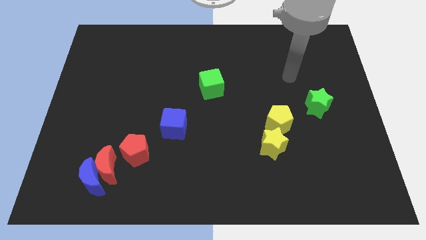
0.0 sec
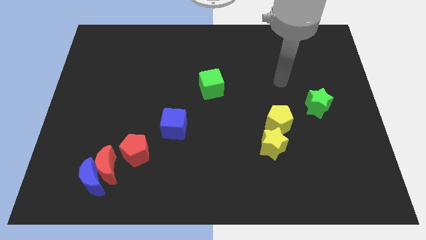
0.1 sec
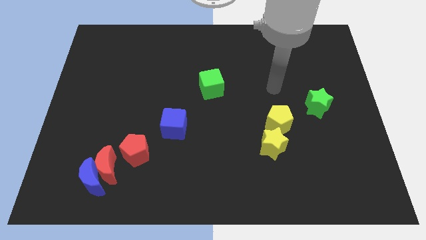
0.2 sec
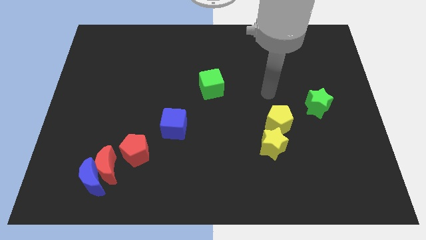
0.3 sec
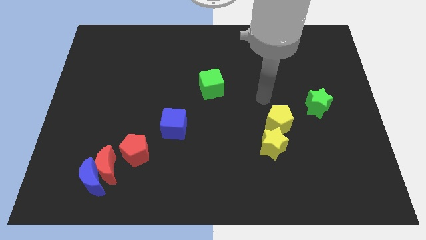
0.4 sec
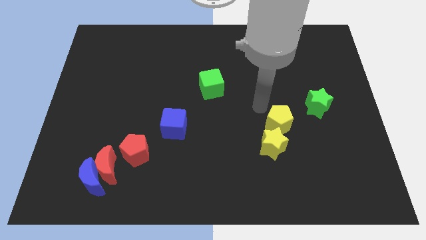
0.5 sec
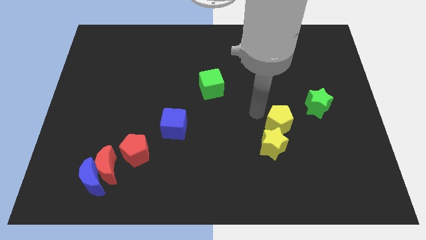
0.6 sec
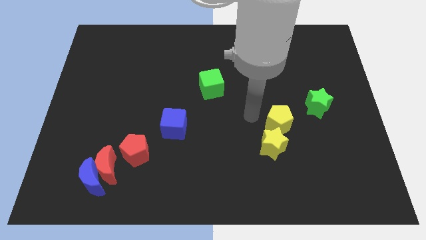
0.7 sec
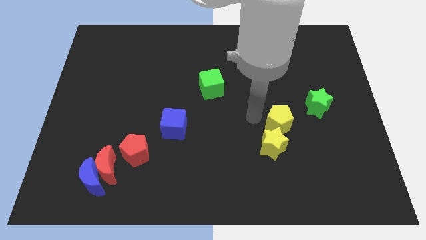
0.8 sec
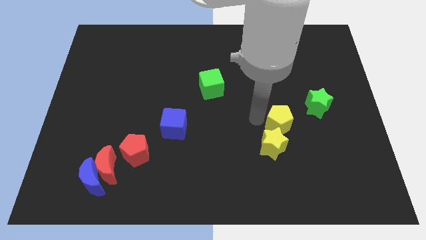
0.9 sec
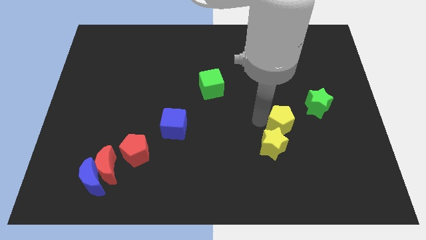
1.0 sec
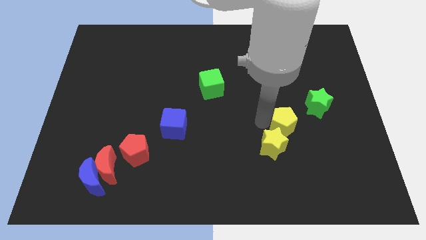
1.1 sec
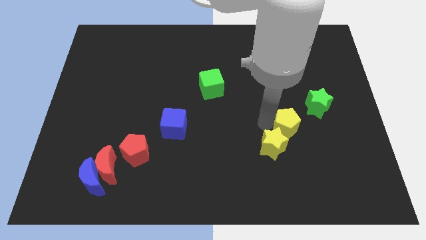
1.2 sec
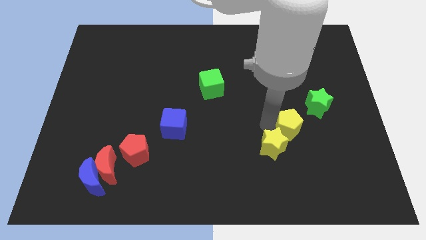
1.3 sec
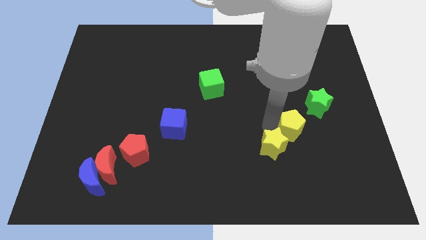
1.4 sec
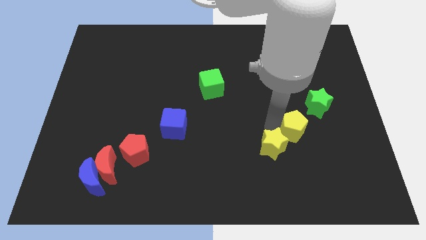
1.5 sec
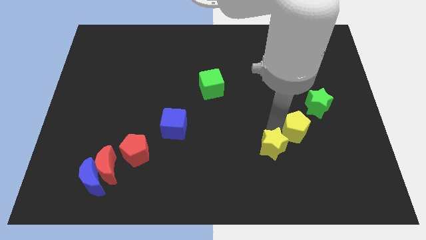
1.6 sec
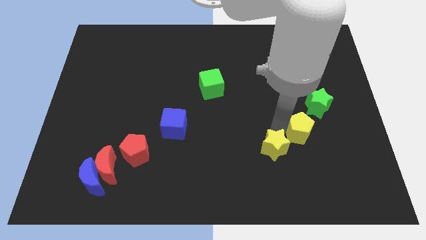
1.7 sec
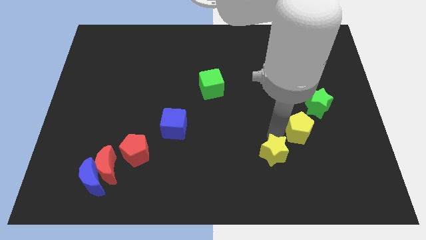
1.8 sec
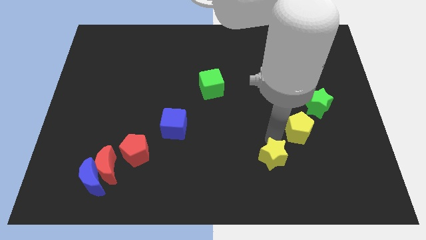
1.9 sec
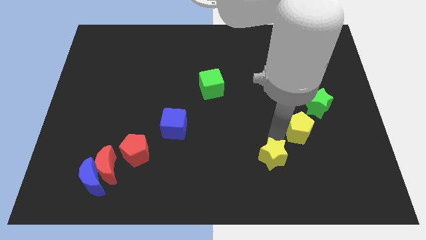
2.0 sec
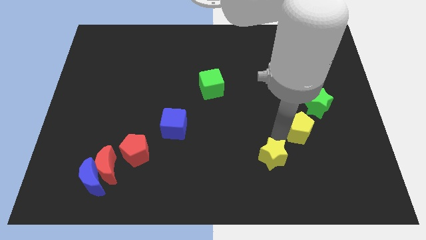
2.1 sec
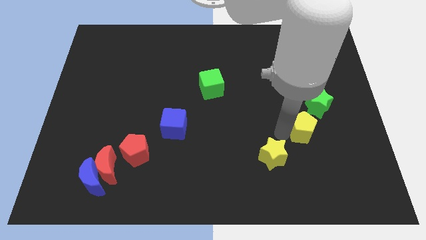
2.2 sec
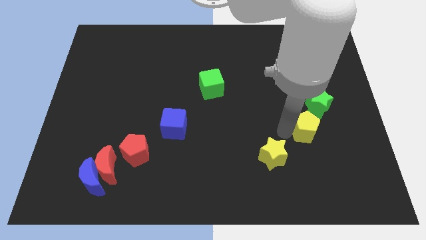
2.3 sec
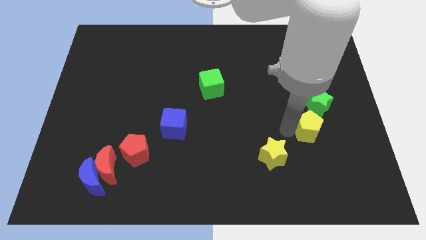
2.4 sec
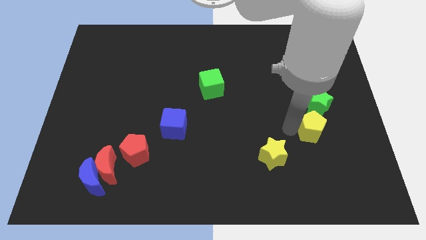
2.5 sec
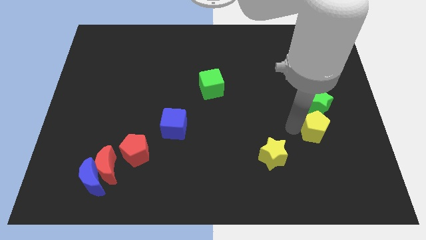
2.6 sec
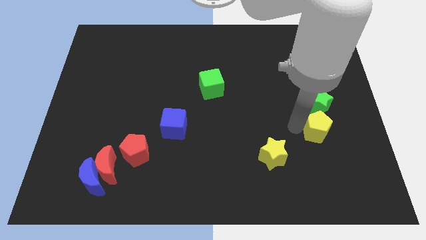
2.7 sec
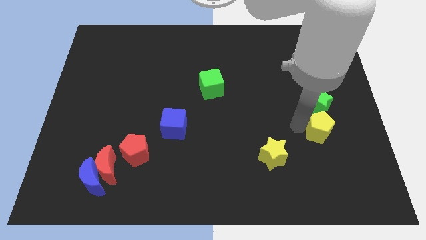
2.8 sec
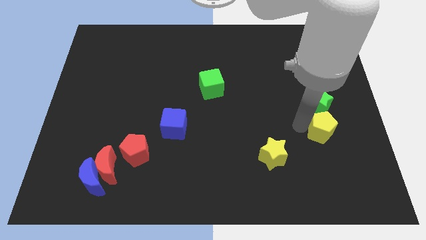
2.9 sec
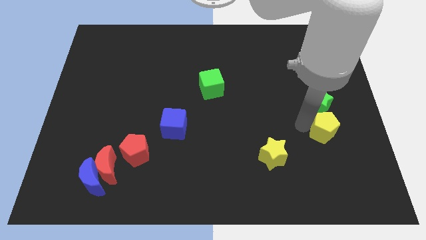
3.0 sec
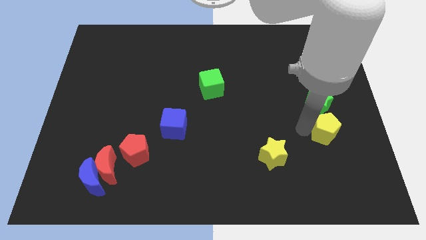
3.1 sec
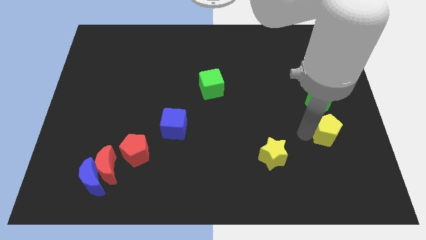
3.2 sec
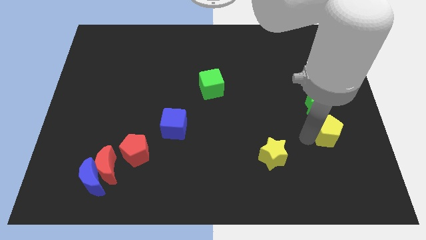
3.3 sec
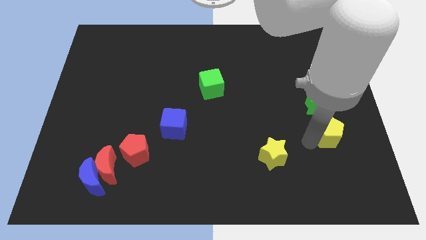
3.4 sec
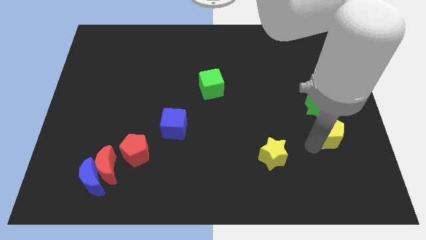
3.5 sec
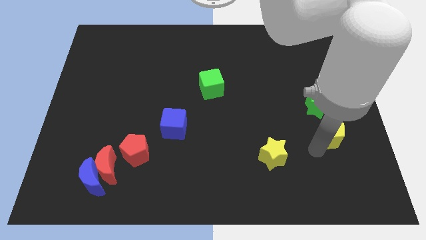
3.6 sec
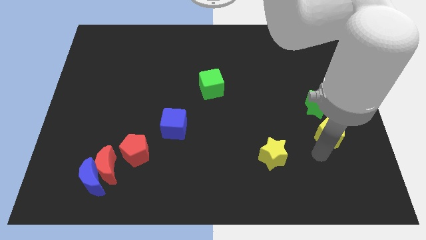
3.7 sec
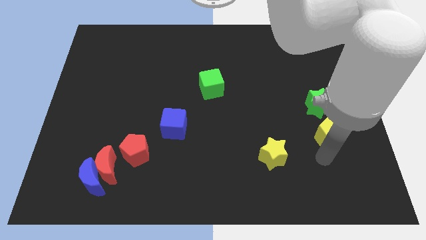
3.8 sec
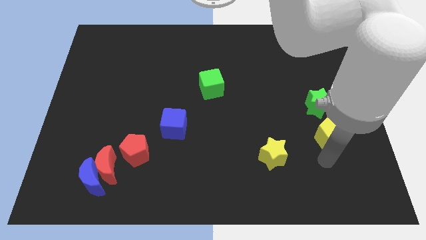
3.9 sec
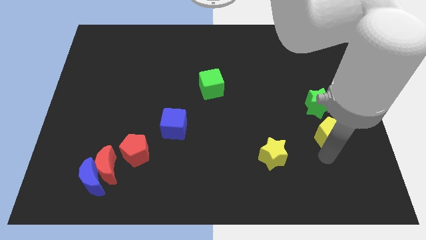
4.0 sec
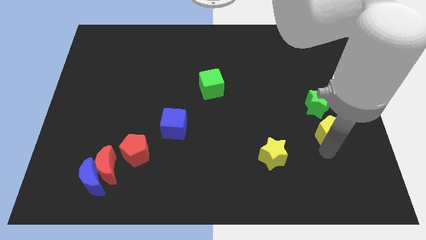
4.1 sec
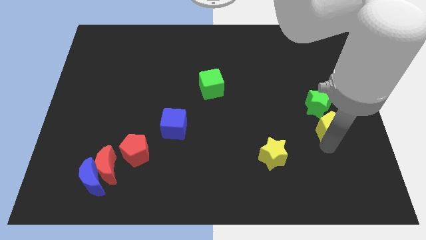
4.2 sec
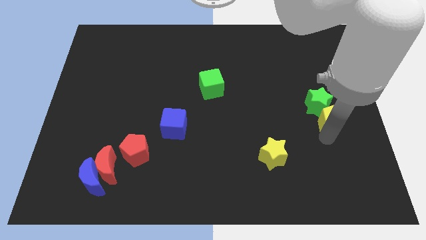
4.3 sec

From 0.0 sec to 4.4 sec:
slide the yellow pentagon to the right side of the board

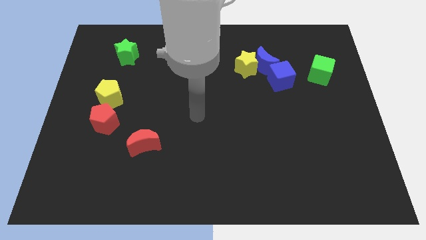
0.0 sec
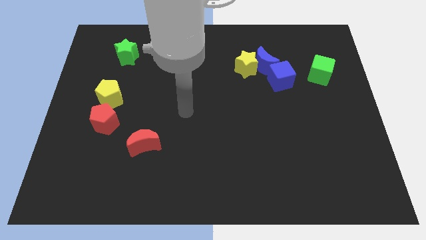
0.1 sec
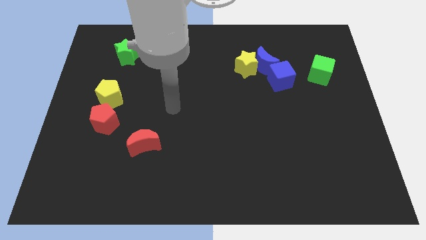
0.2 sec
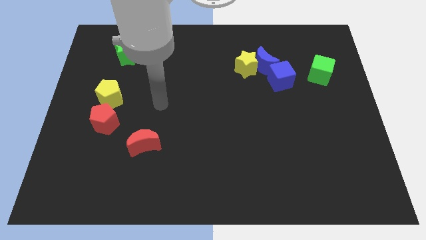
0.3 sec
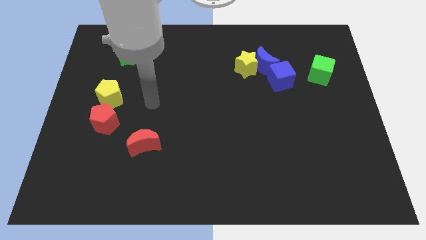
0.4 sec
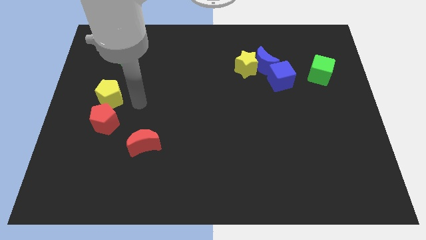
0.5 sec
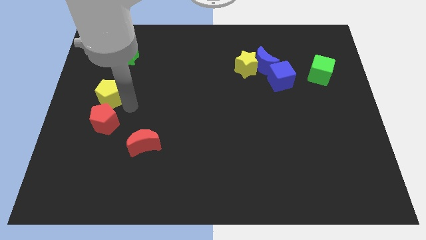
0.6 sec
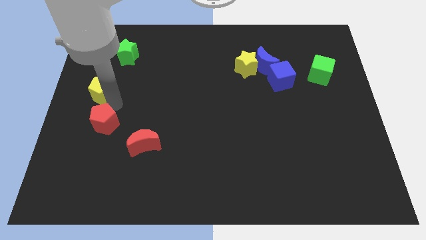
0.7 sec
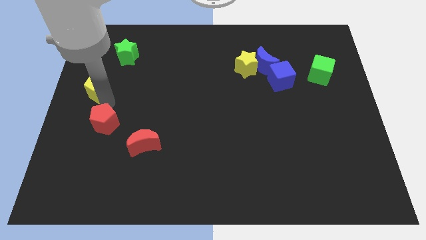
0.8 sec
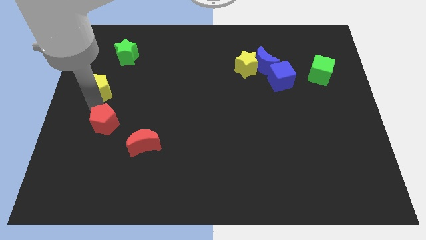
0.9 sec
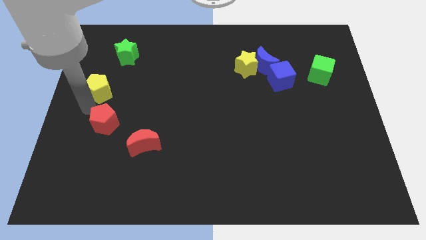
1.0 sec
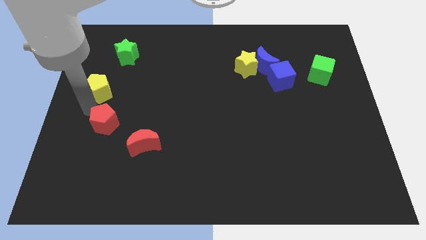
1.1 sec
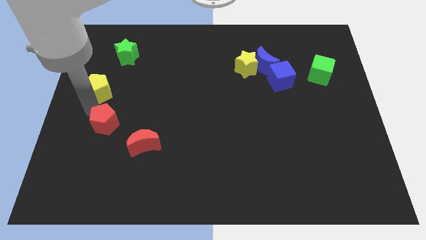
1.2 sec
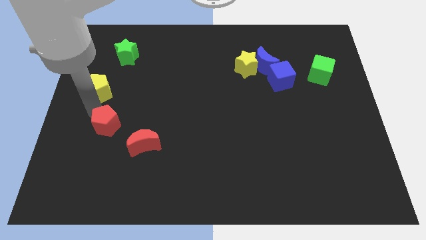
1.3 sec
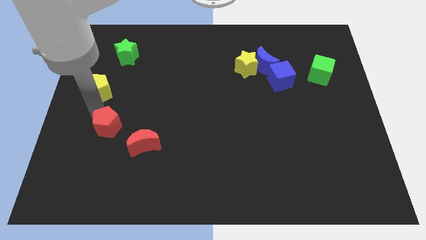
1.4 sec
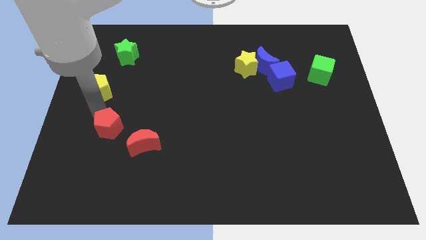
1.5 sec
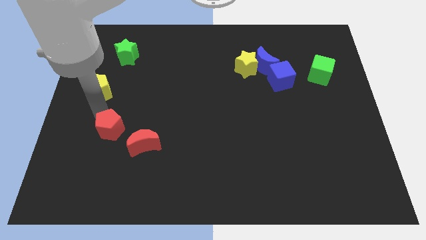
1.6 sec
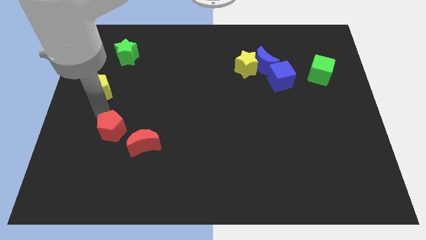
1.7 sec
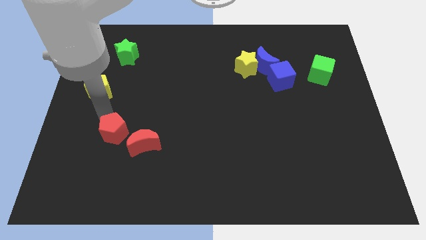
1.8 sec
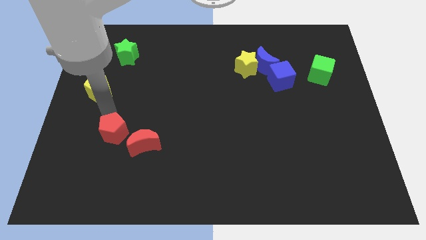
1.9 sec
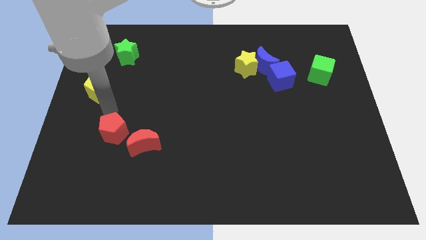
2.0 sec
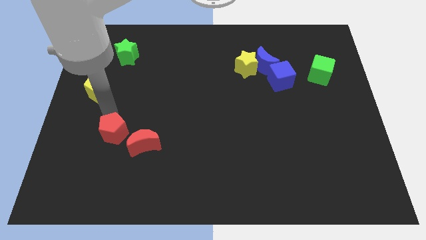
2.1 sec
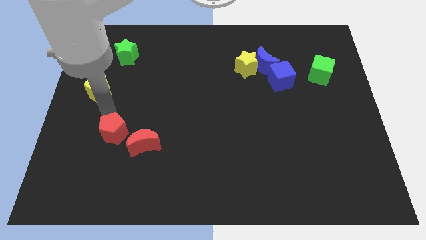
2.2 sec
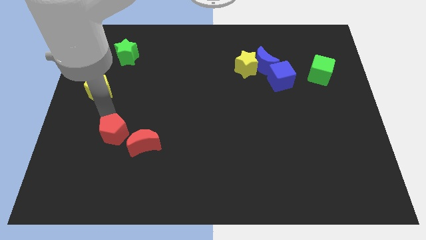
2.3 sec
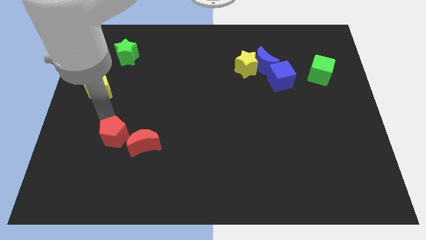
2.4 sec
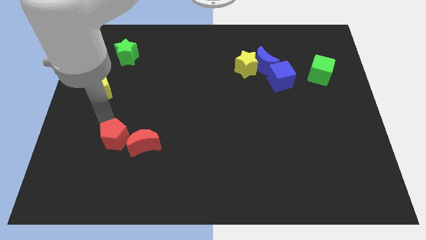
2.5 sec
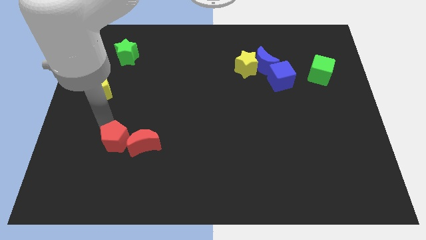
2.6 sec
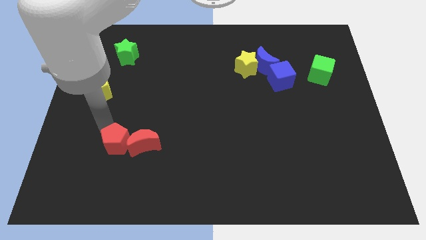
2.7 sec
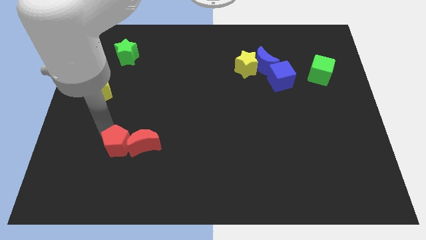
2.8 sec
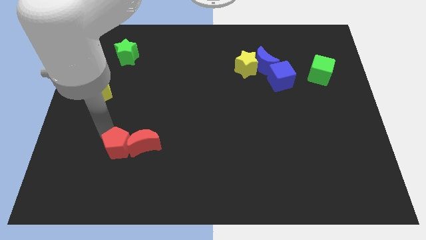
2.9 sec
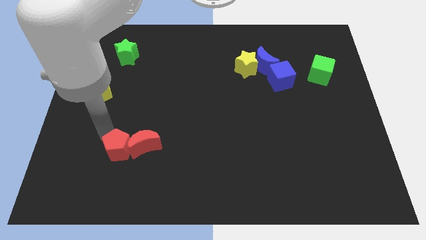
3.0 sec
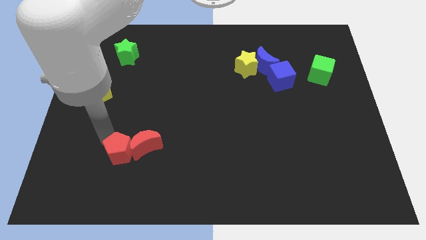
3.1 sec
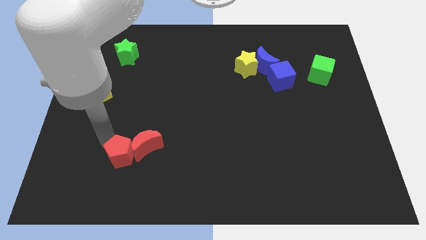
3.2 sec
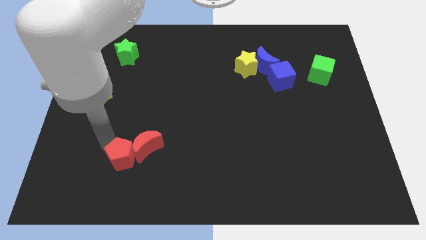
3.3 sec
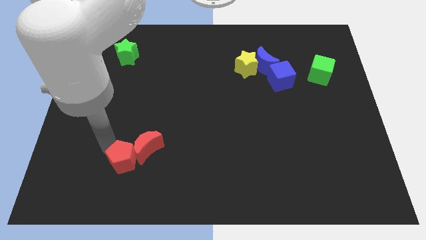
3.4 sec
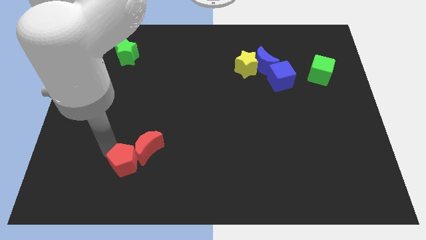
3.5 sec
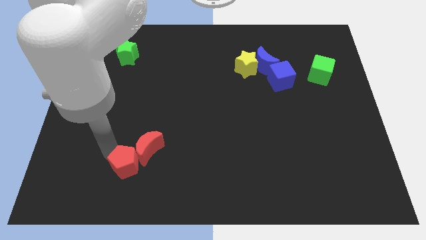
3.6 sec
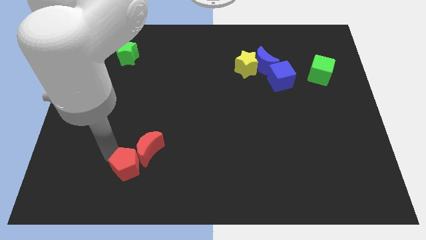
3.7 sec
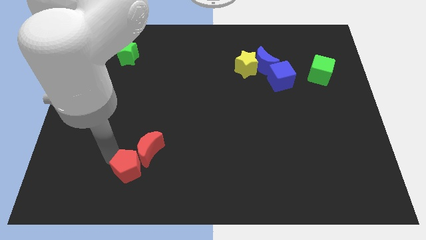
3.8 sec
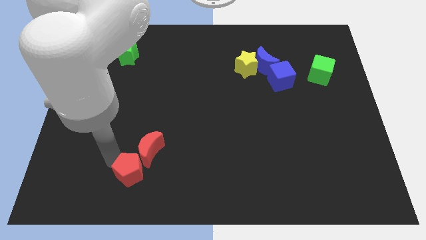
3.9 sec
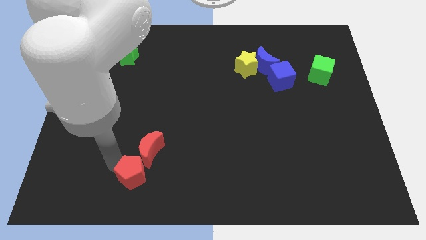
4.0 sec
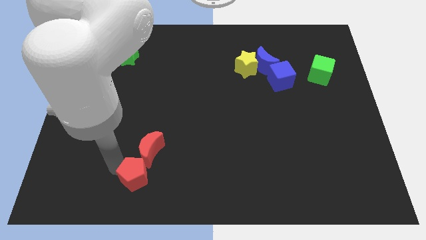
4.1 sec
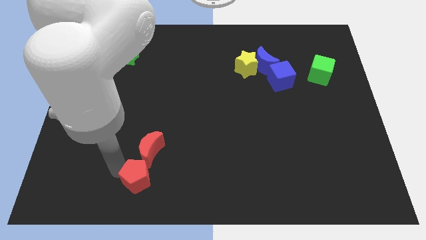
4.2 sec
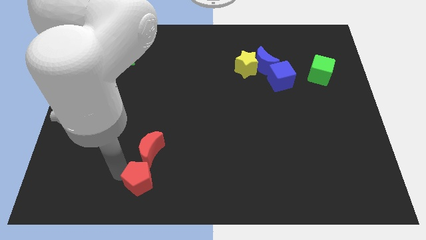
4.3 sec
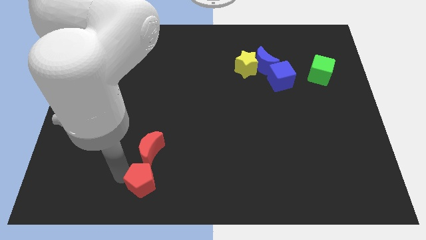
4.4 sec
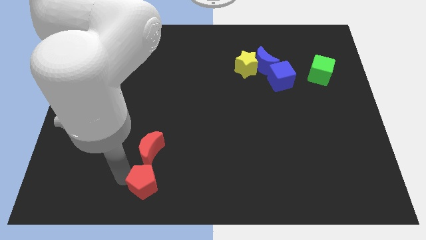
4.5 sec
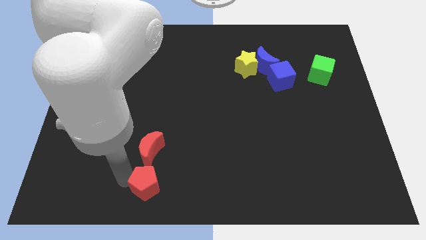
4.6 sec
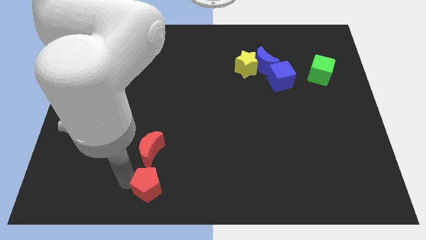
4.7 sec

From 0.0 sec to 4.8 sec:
slide the red pentagon to the bottom
